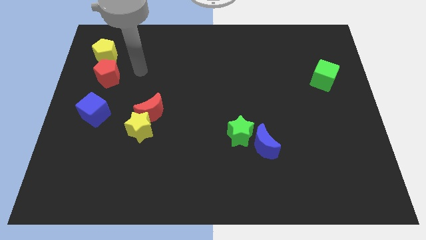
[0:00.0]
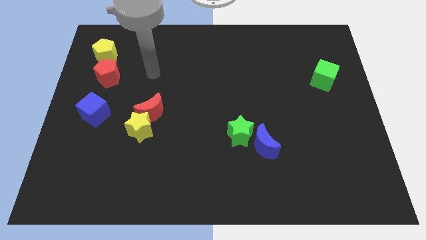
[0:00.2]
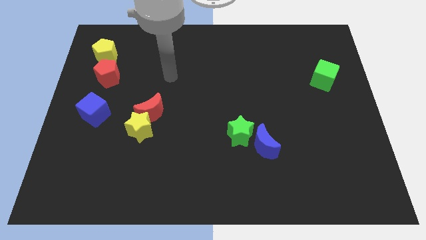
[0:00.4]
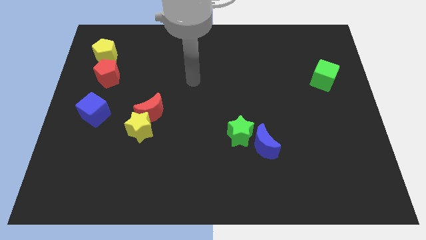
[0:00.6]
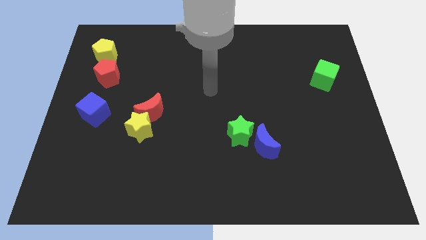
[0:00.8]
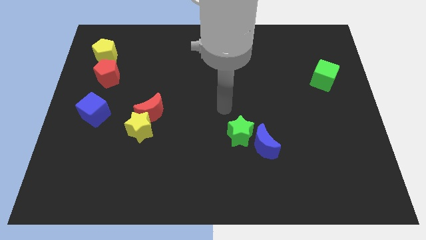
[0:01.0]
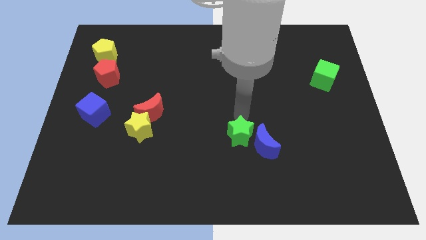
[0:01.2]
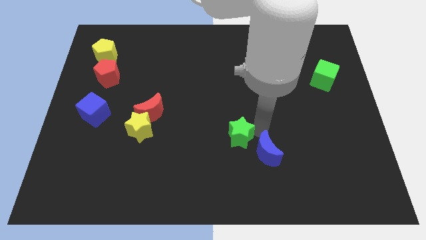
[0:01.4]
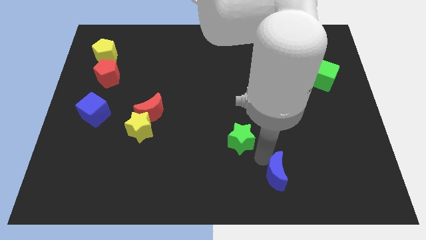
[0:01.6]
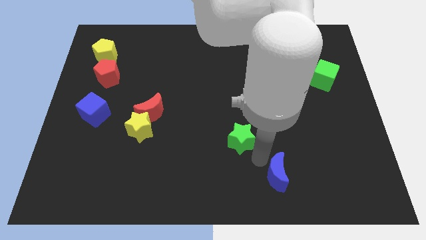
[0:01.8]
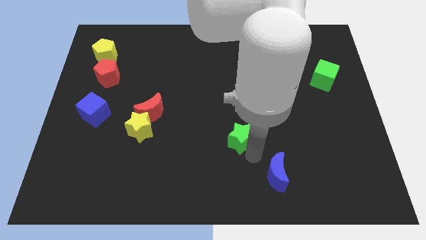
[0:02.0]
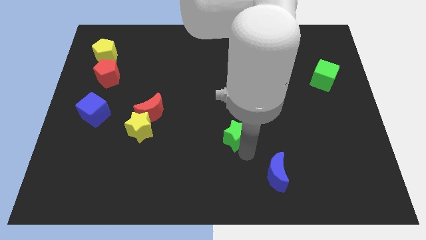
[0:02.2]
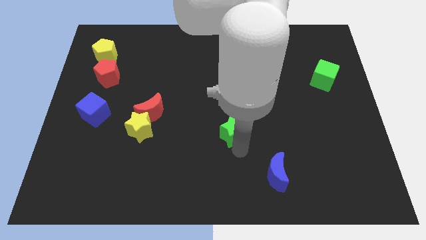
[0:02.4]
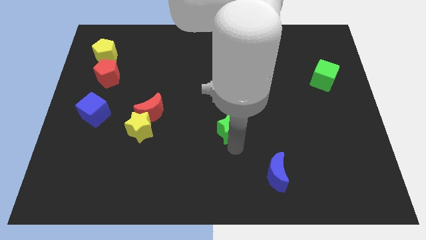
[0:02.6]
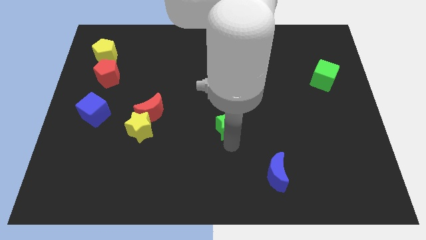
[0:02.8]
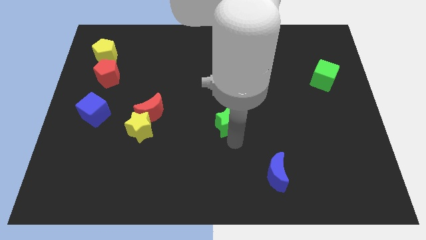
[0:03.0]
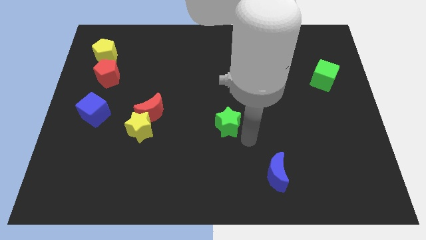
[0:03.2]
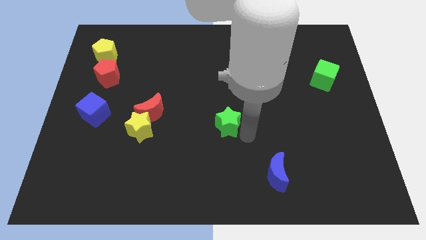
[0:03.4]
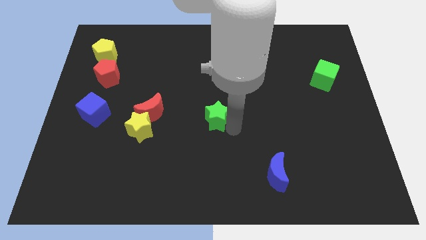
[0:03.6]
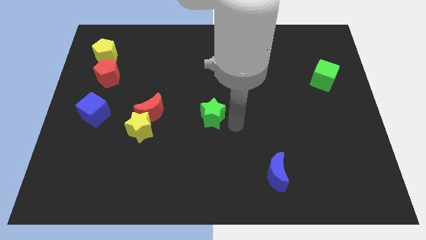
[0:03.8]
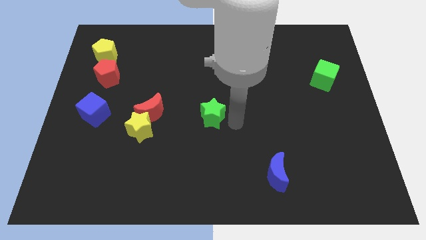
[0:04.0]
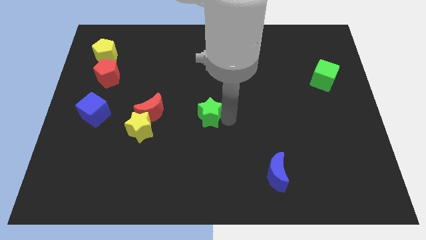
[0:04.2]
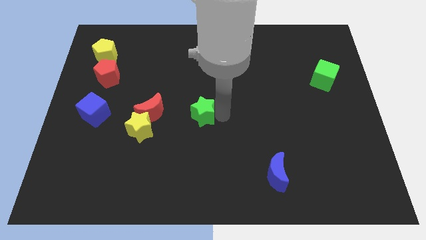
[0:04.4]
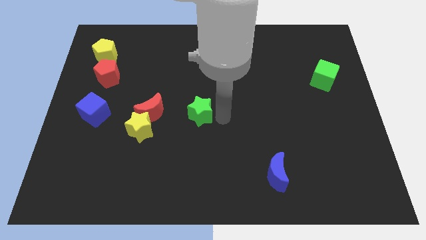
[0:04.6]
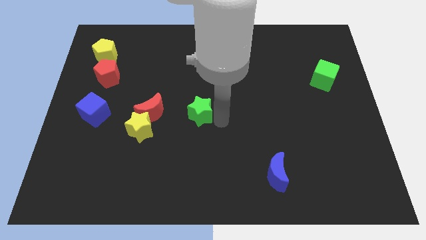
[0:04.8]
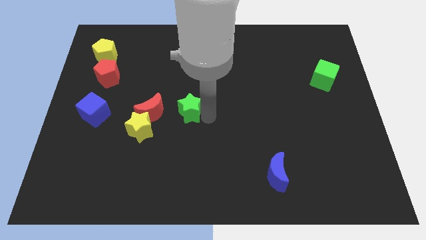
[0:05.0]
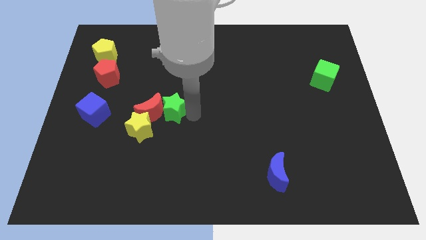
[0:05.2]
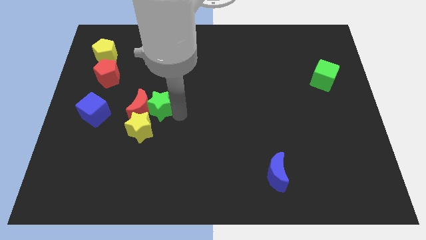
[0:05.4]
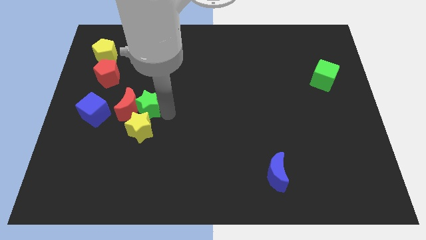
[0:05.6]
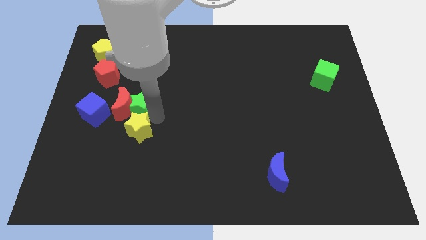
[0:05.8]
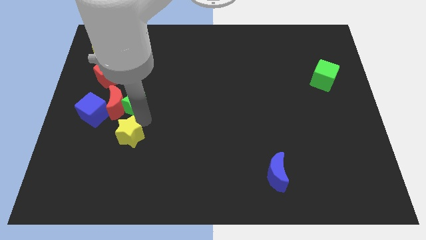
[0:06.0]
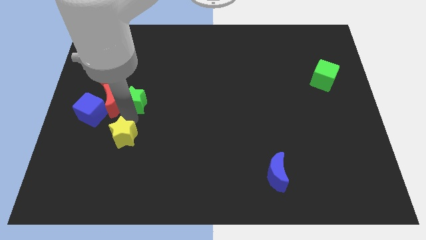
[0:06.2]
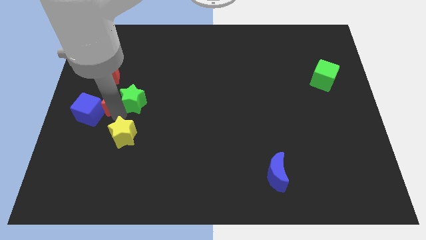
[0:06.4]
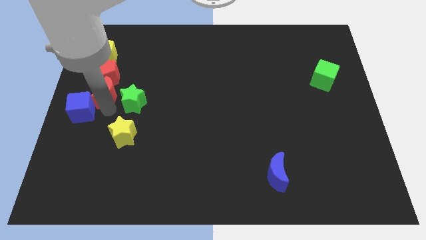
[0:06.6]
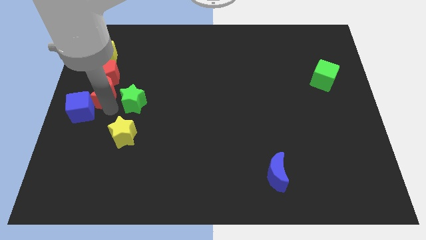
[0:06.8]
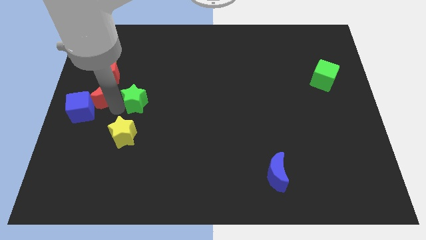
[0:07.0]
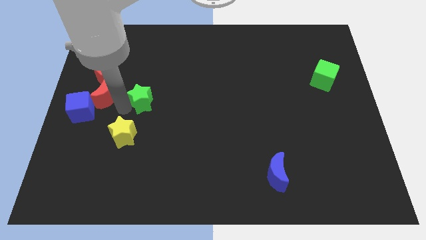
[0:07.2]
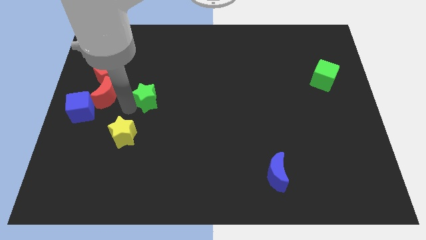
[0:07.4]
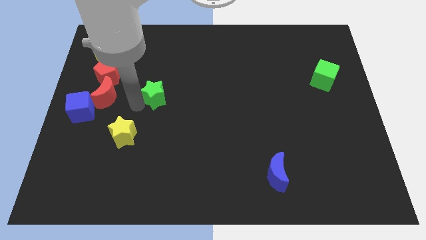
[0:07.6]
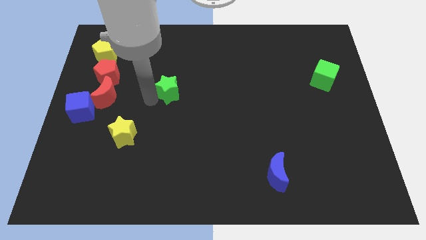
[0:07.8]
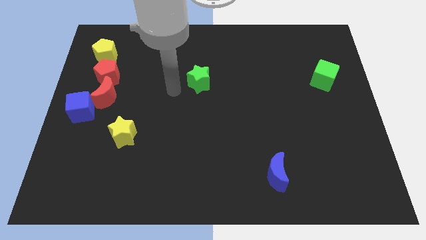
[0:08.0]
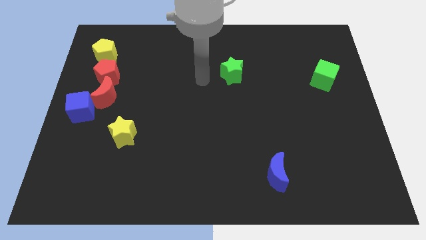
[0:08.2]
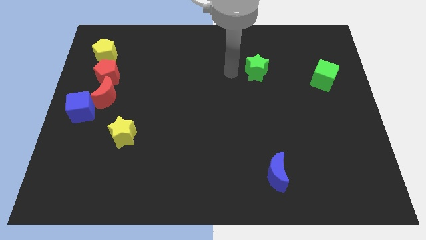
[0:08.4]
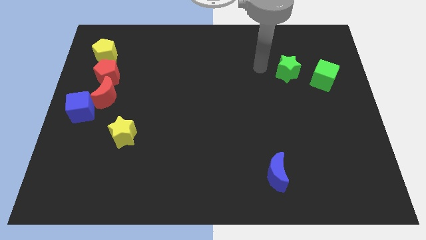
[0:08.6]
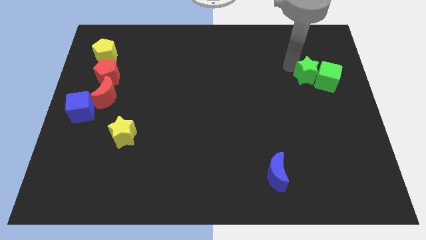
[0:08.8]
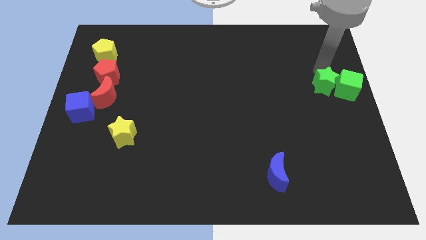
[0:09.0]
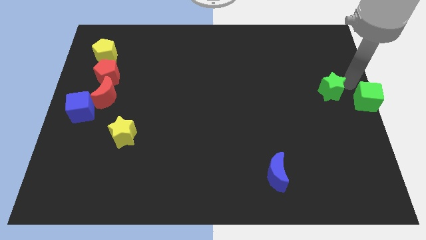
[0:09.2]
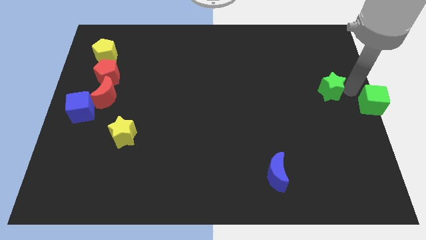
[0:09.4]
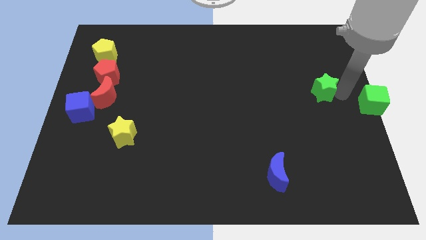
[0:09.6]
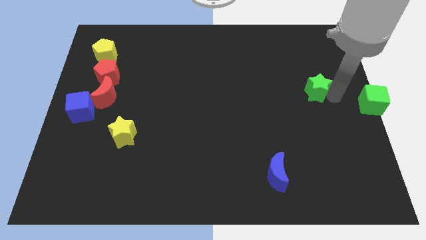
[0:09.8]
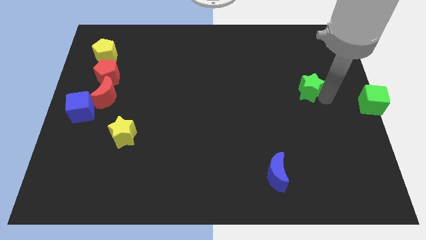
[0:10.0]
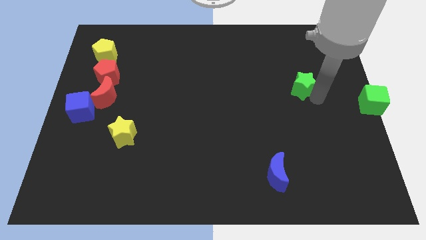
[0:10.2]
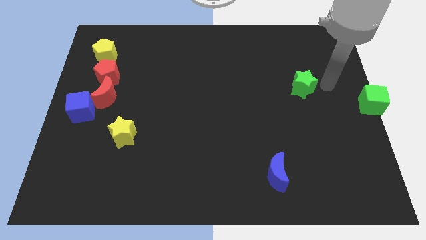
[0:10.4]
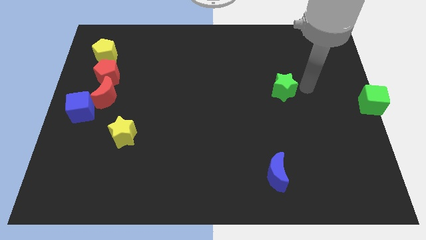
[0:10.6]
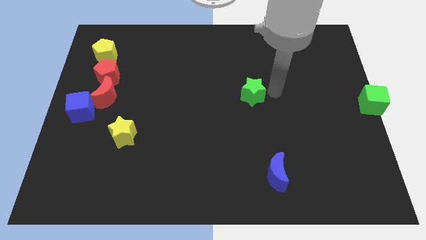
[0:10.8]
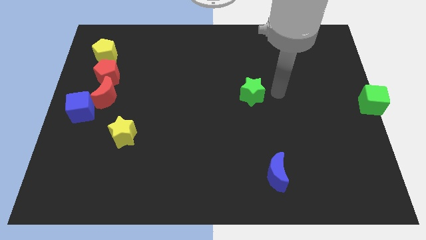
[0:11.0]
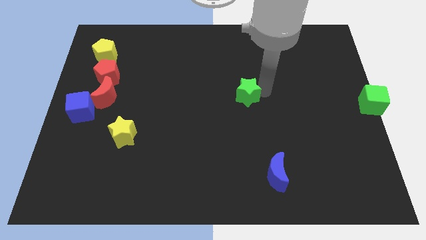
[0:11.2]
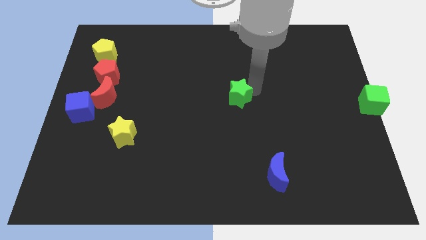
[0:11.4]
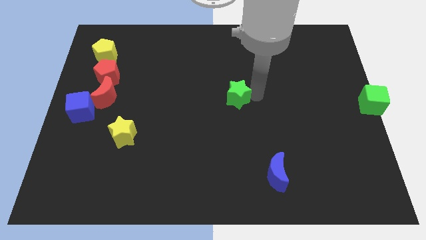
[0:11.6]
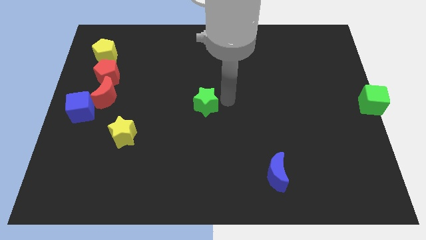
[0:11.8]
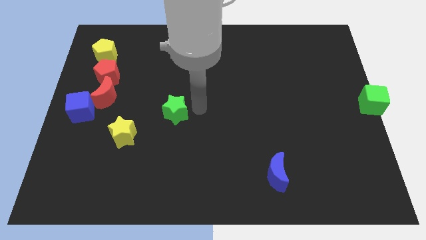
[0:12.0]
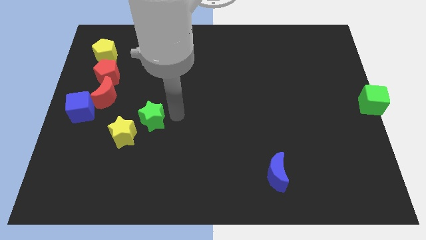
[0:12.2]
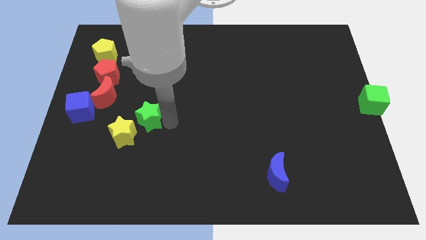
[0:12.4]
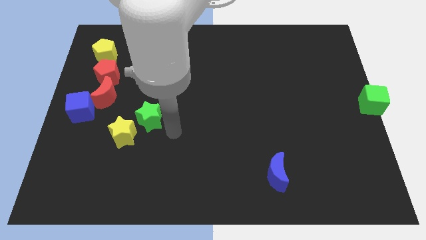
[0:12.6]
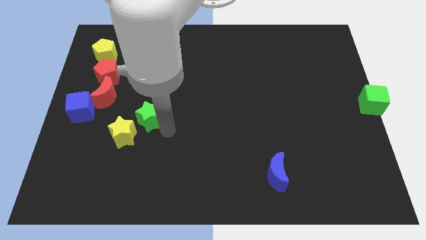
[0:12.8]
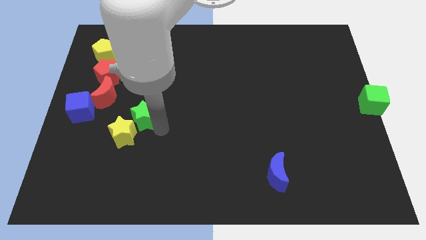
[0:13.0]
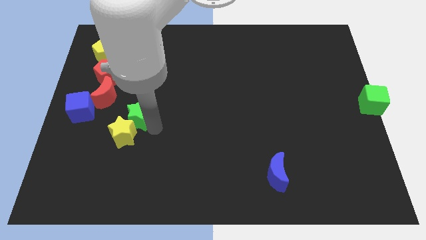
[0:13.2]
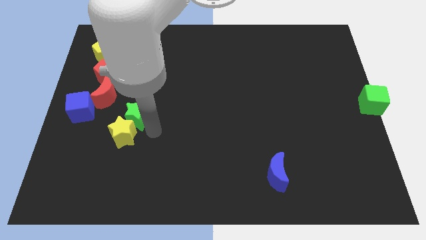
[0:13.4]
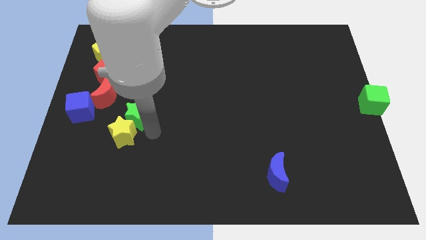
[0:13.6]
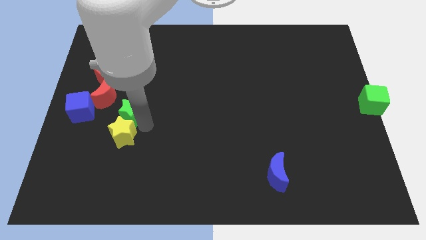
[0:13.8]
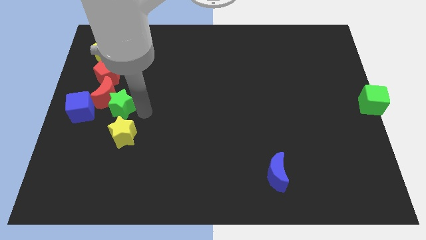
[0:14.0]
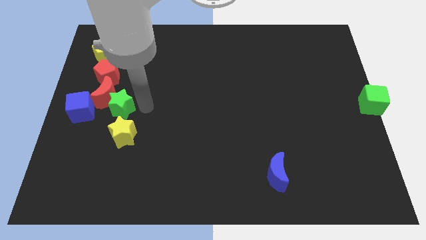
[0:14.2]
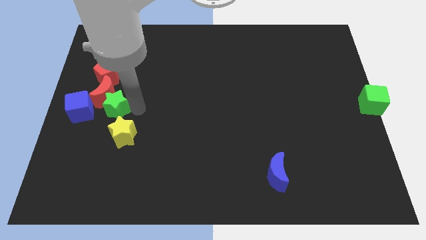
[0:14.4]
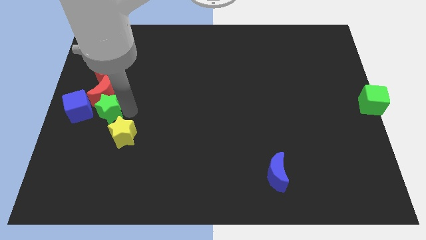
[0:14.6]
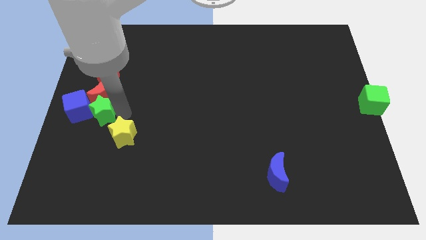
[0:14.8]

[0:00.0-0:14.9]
move the green star close to the blue cube
